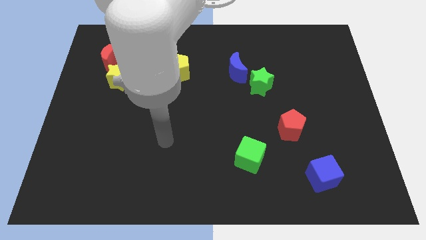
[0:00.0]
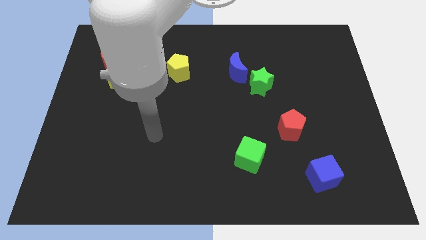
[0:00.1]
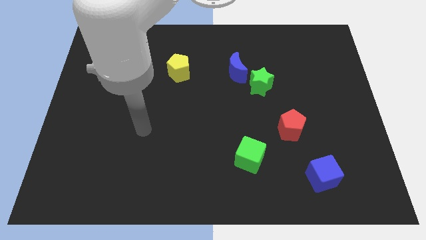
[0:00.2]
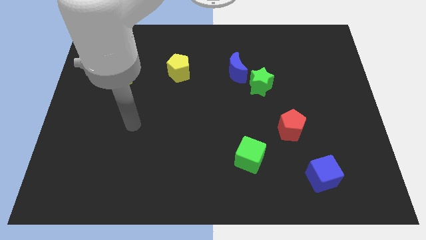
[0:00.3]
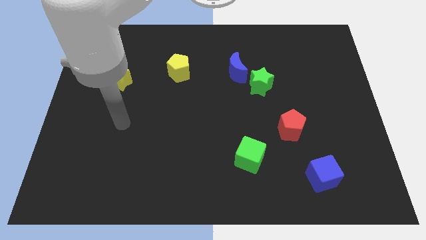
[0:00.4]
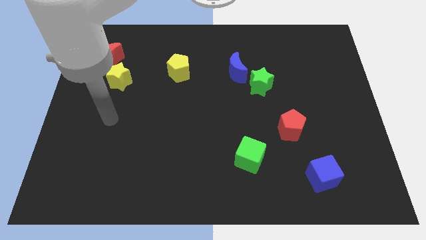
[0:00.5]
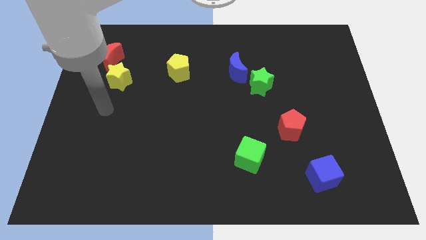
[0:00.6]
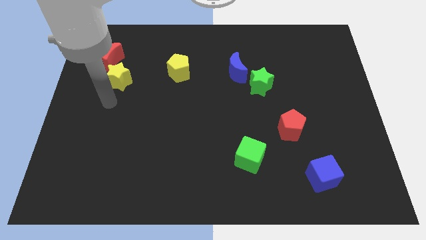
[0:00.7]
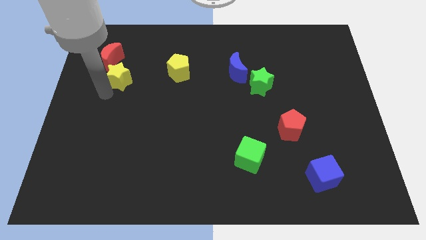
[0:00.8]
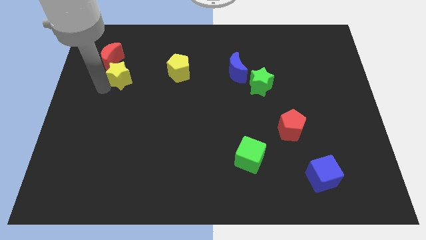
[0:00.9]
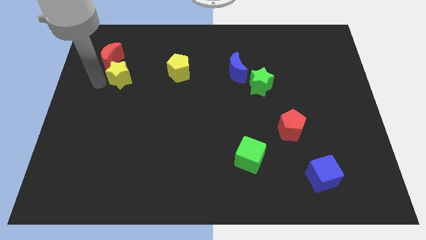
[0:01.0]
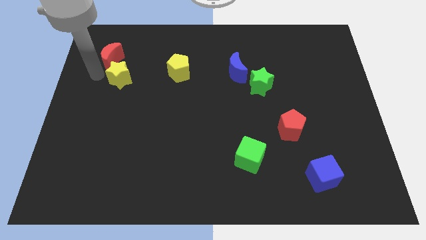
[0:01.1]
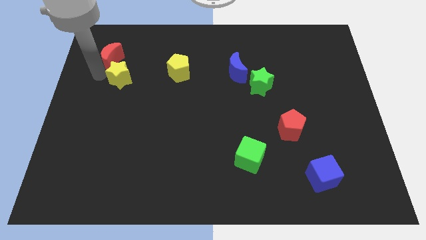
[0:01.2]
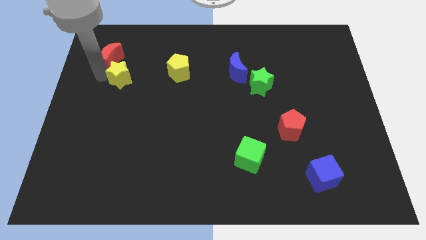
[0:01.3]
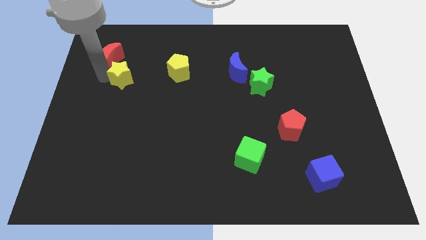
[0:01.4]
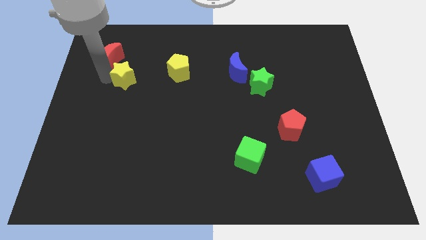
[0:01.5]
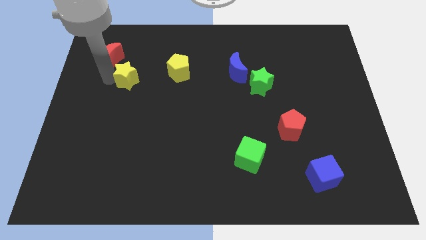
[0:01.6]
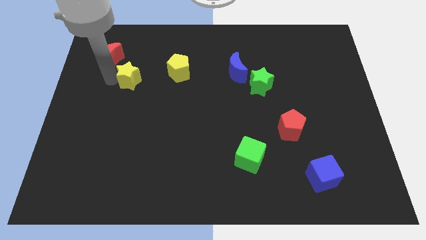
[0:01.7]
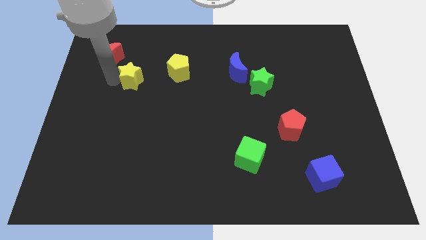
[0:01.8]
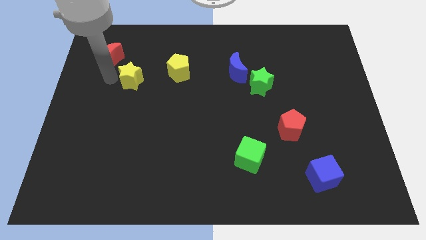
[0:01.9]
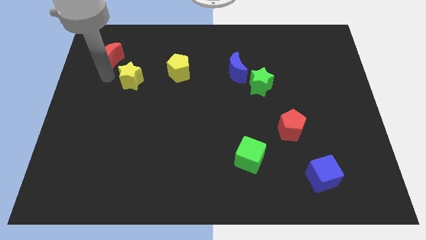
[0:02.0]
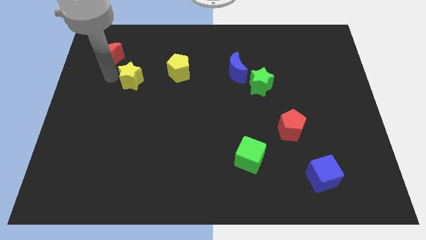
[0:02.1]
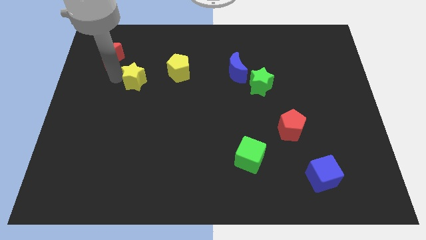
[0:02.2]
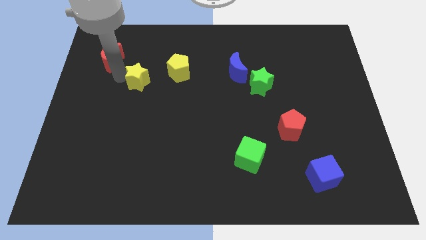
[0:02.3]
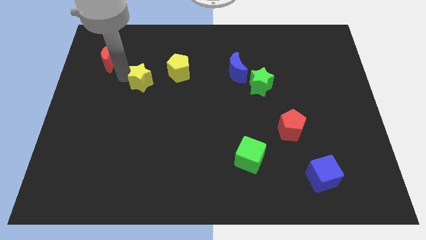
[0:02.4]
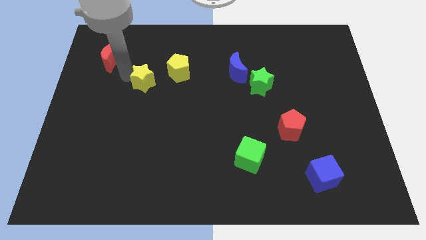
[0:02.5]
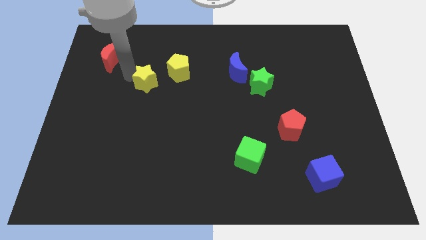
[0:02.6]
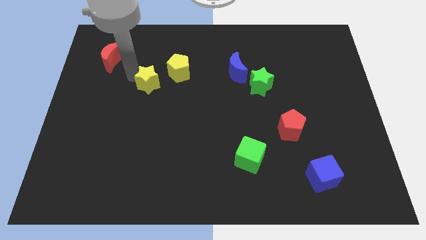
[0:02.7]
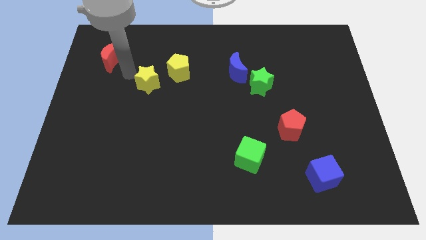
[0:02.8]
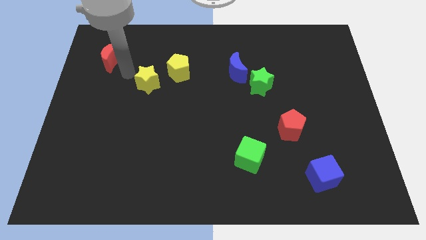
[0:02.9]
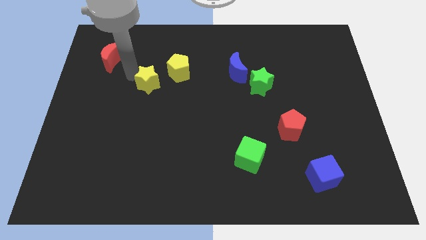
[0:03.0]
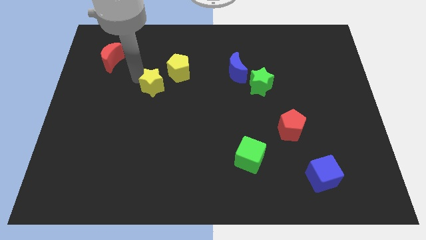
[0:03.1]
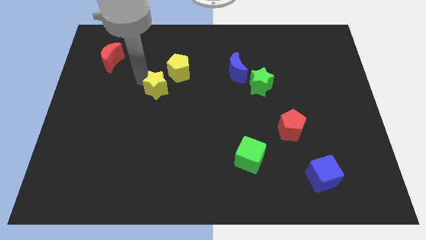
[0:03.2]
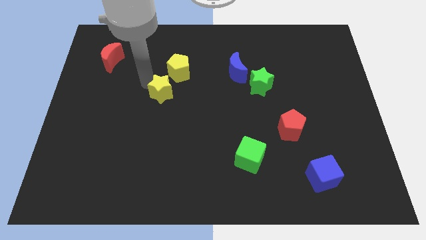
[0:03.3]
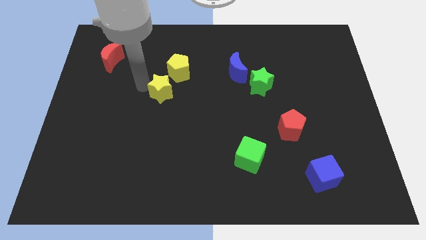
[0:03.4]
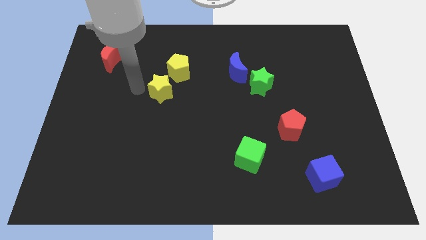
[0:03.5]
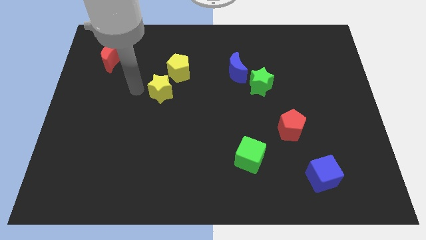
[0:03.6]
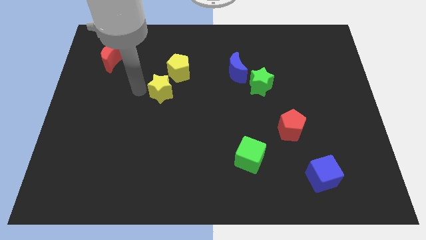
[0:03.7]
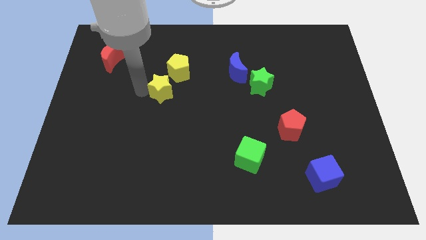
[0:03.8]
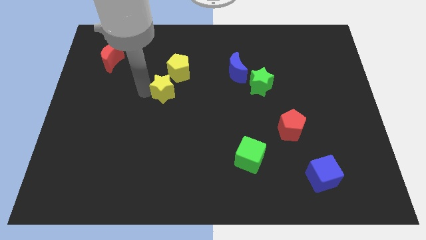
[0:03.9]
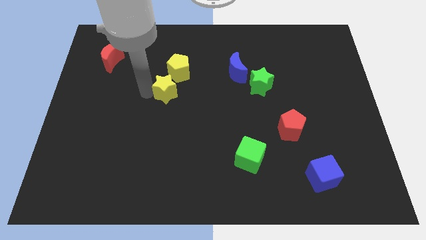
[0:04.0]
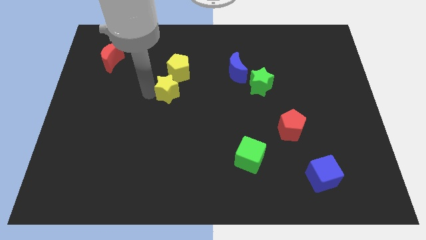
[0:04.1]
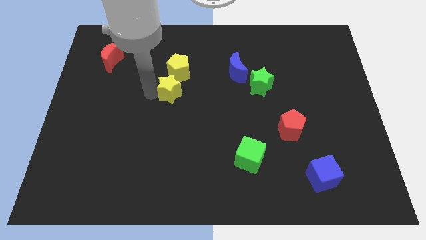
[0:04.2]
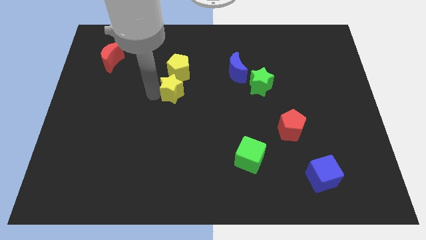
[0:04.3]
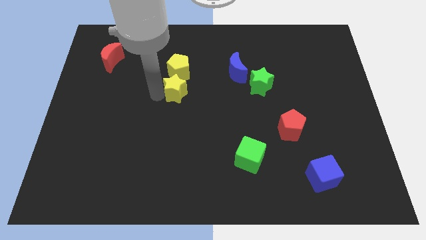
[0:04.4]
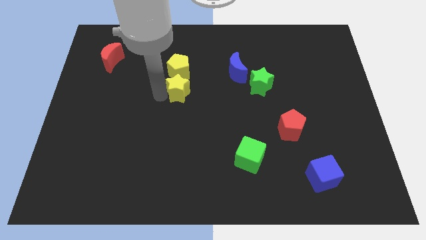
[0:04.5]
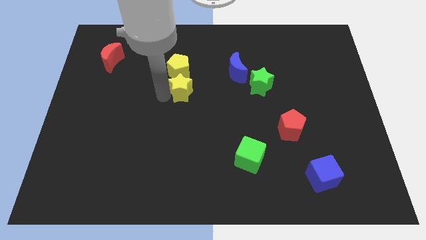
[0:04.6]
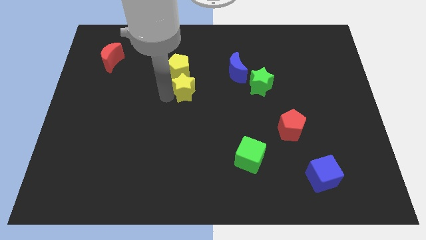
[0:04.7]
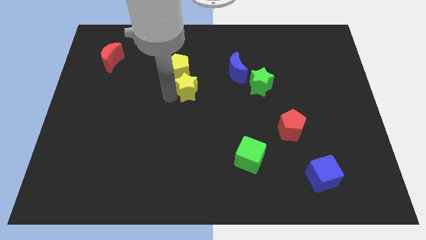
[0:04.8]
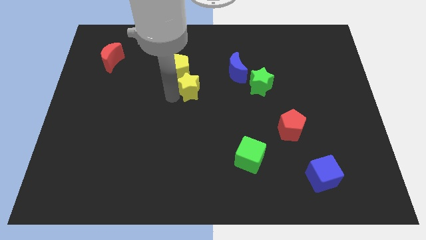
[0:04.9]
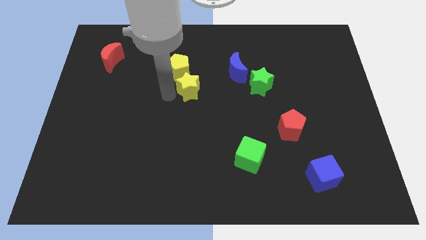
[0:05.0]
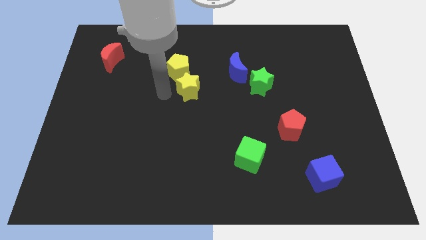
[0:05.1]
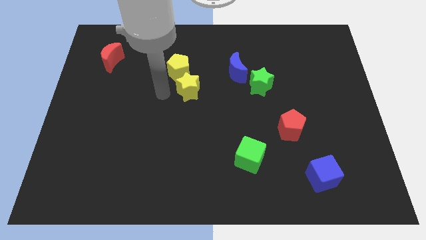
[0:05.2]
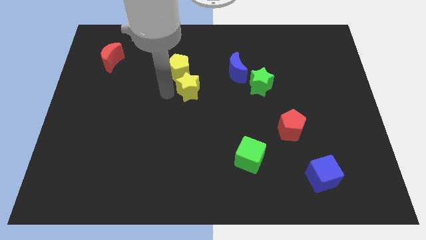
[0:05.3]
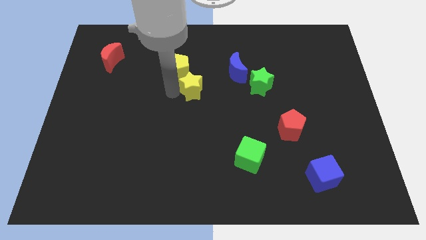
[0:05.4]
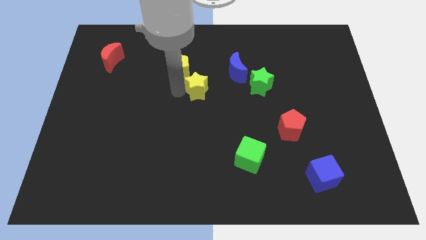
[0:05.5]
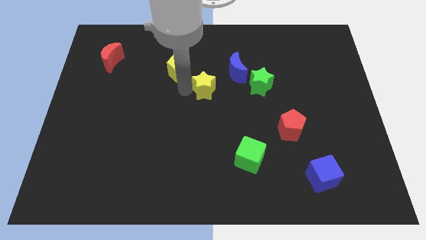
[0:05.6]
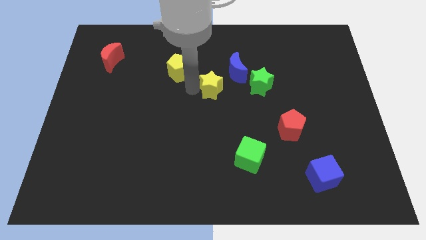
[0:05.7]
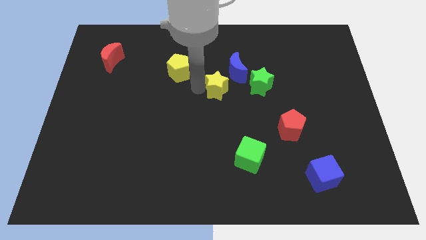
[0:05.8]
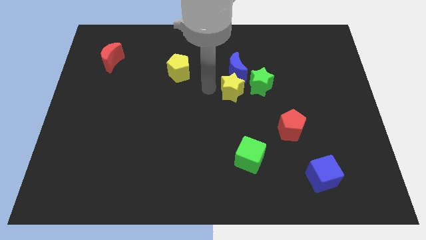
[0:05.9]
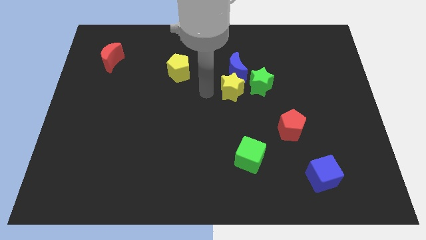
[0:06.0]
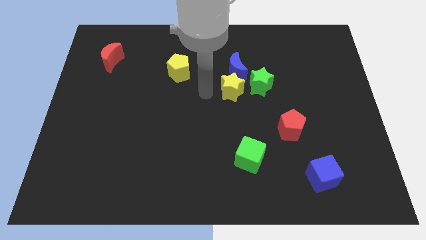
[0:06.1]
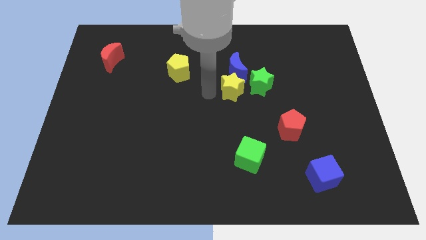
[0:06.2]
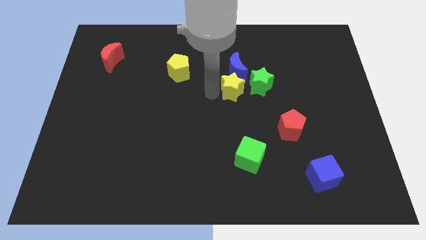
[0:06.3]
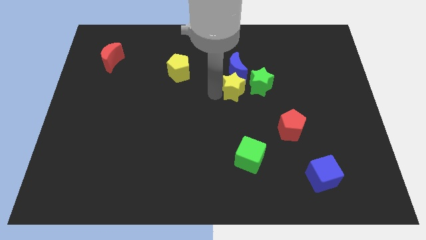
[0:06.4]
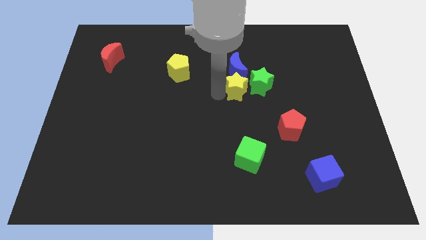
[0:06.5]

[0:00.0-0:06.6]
slide the yellow star towards the green star
